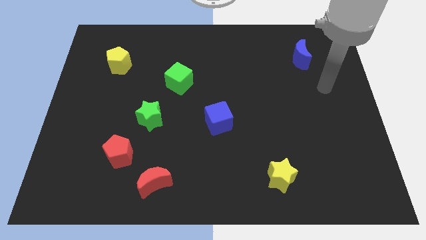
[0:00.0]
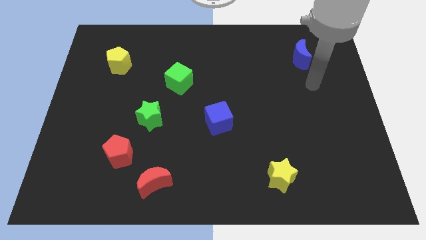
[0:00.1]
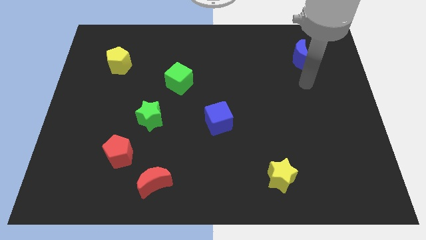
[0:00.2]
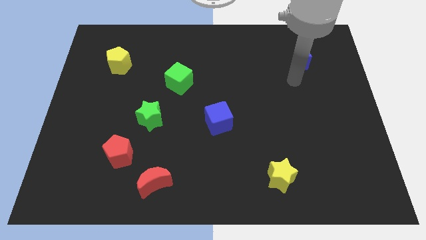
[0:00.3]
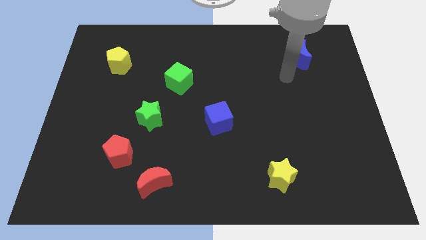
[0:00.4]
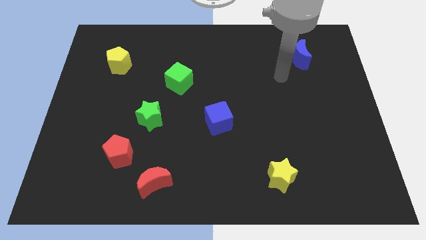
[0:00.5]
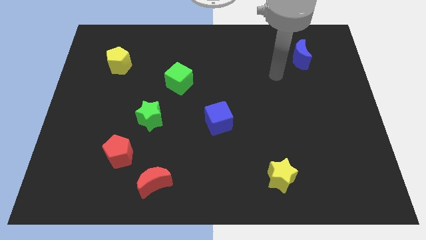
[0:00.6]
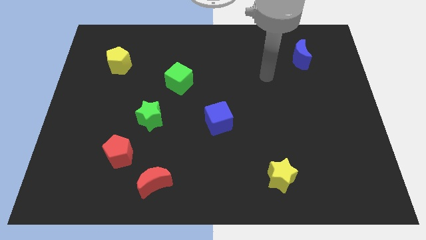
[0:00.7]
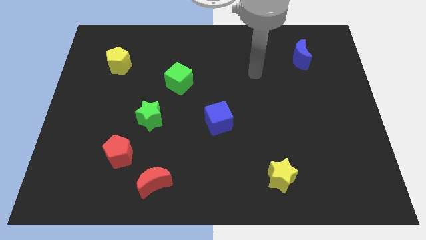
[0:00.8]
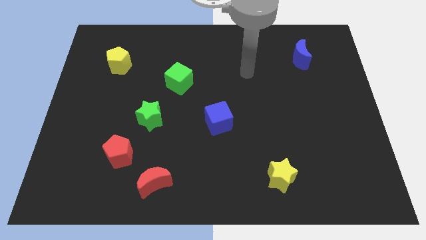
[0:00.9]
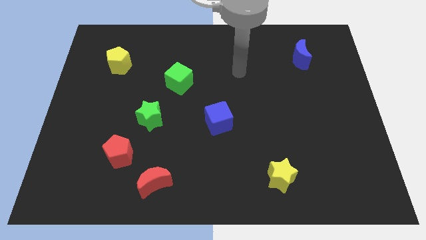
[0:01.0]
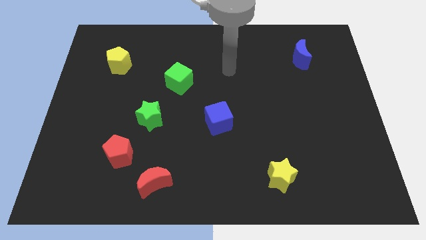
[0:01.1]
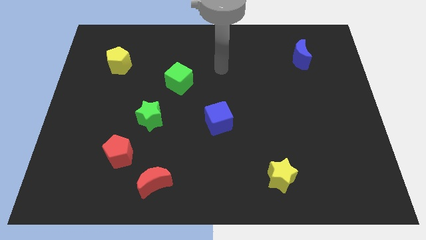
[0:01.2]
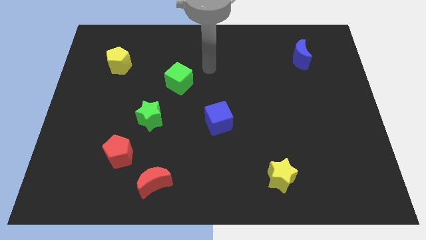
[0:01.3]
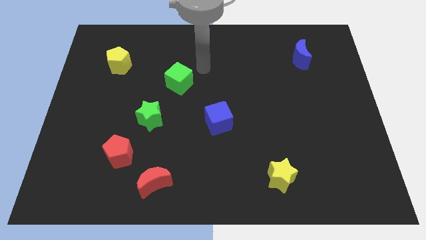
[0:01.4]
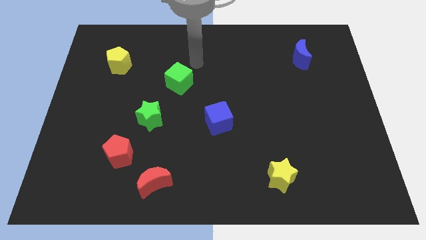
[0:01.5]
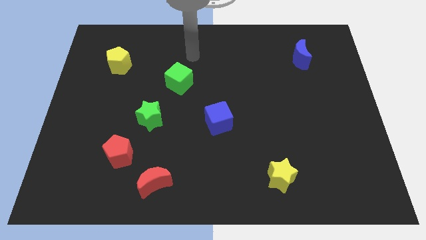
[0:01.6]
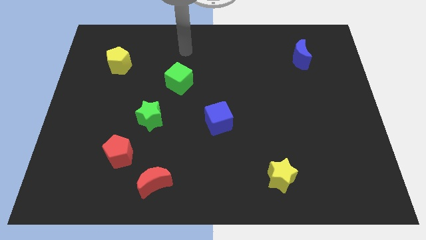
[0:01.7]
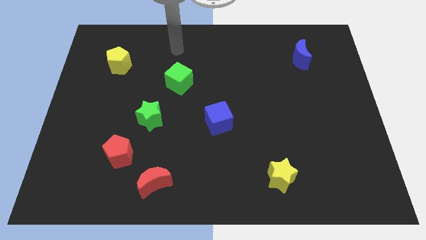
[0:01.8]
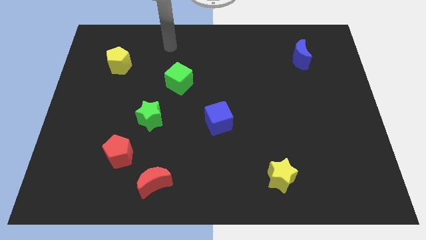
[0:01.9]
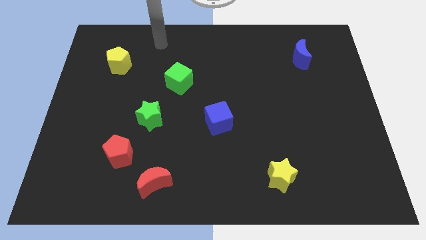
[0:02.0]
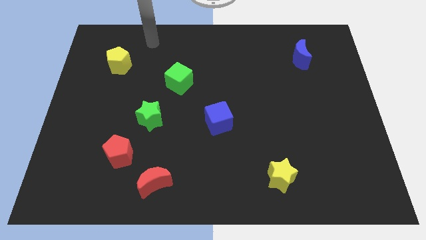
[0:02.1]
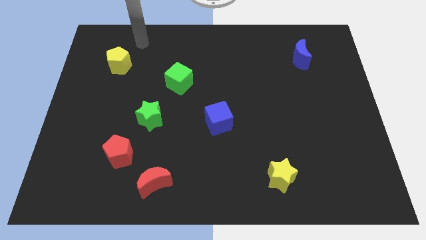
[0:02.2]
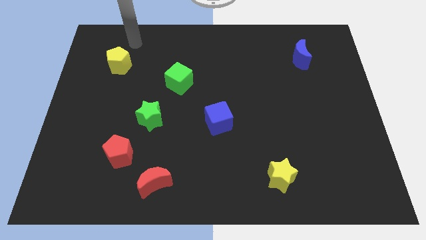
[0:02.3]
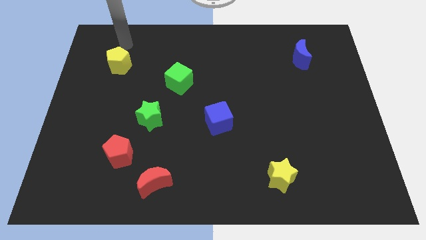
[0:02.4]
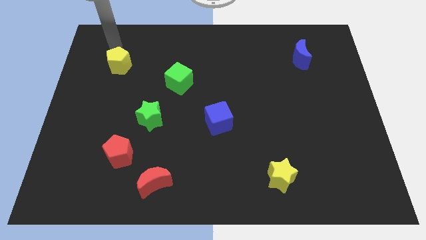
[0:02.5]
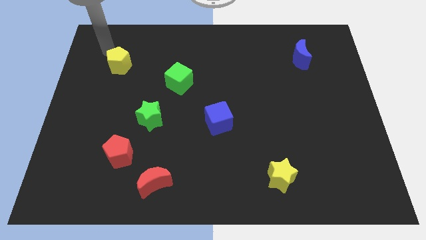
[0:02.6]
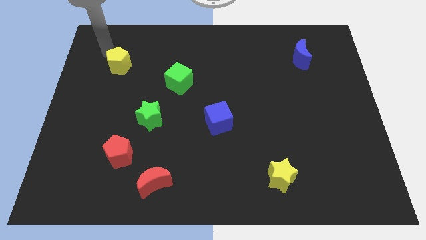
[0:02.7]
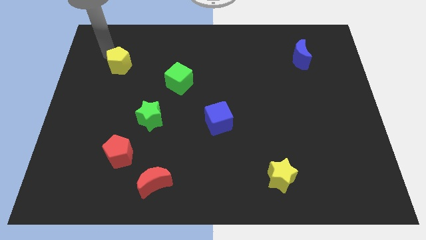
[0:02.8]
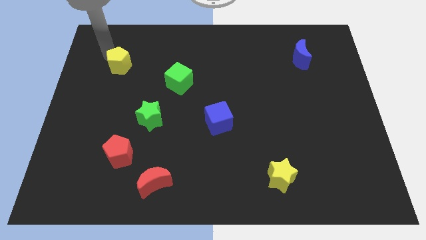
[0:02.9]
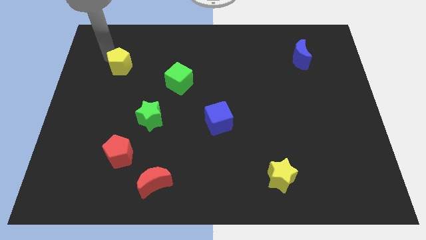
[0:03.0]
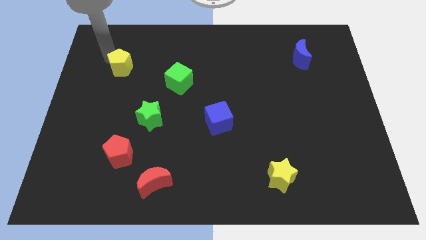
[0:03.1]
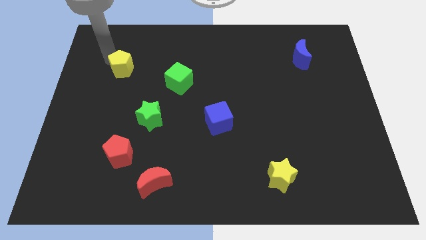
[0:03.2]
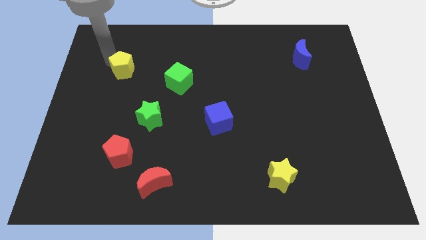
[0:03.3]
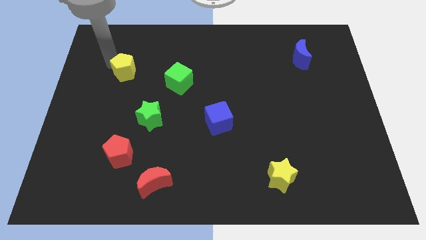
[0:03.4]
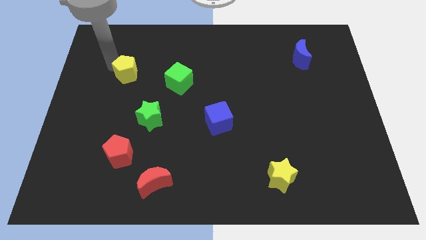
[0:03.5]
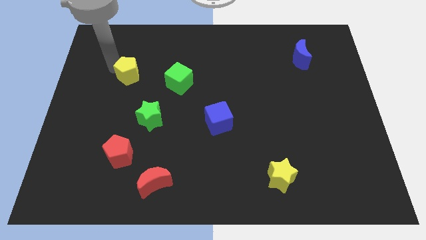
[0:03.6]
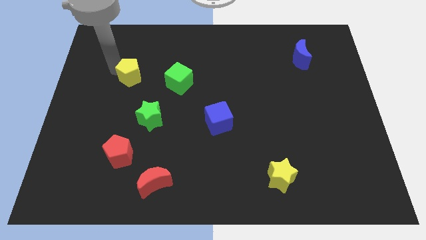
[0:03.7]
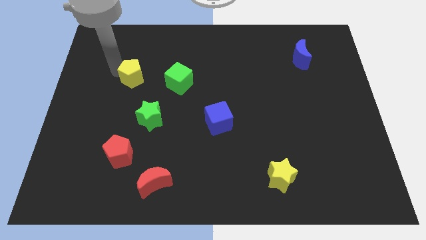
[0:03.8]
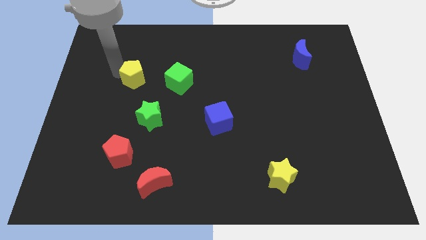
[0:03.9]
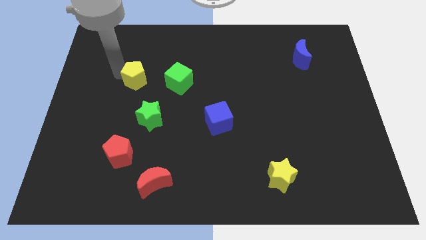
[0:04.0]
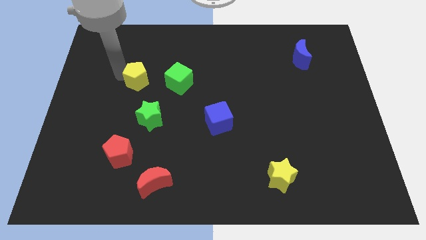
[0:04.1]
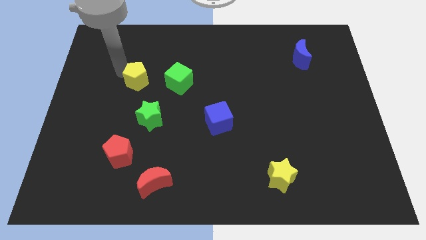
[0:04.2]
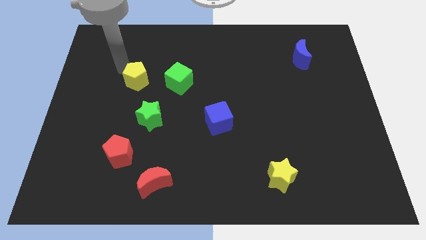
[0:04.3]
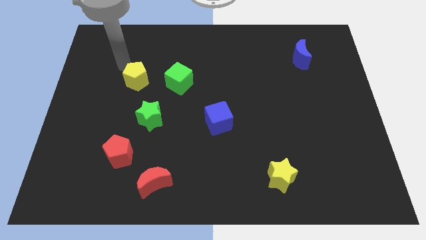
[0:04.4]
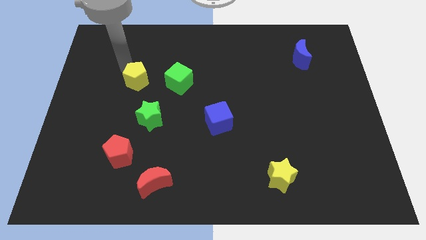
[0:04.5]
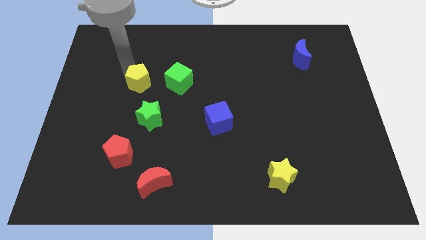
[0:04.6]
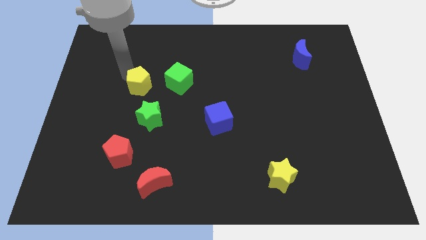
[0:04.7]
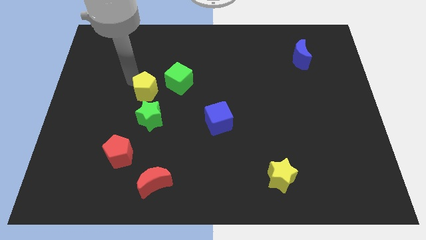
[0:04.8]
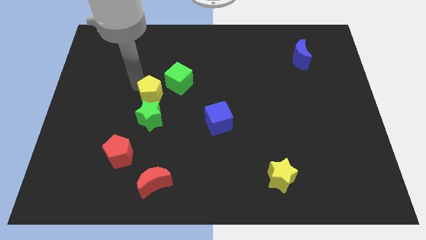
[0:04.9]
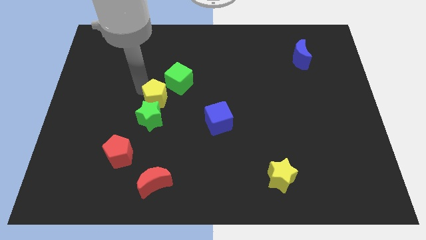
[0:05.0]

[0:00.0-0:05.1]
put the yellow pentagon to the top right side of the green star

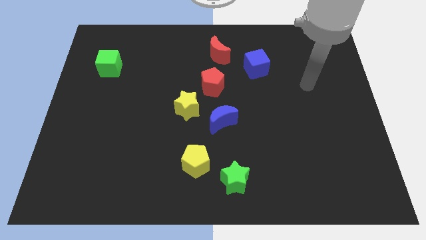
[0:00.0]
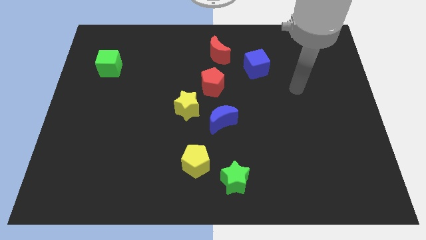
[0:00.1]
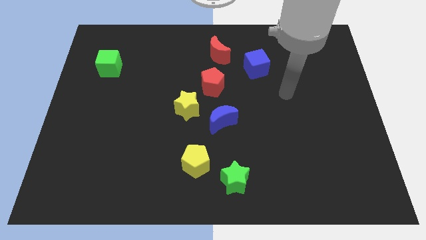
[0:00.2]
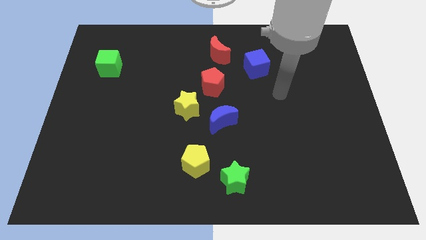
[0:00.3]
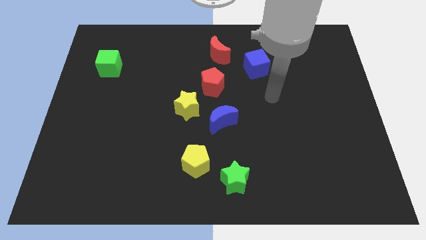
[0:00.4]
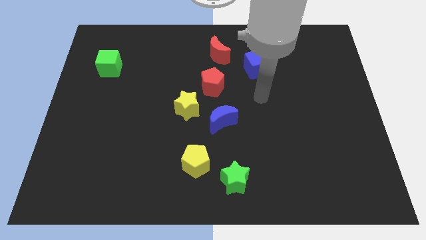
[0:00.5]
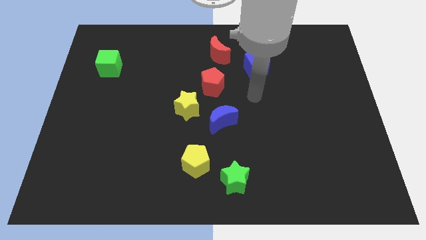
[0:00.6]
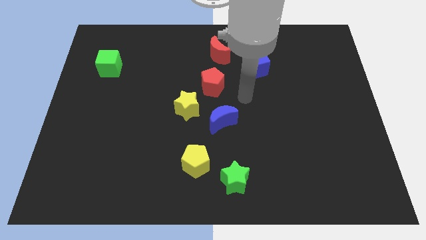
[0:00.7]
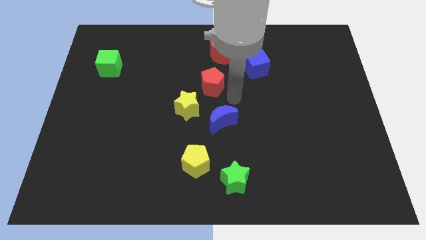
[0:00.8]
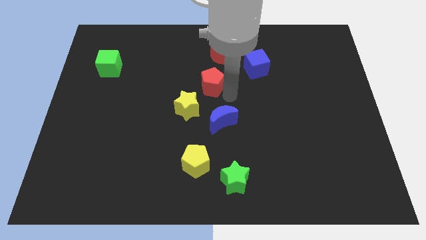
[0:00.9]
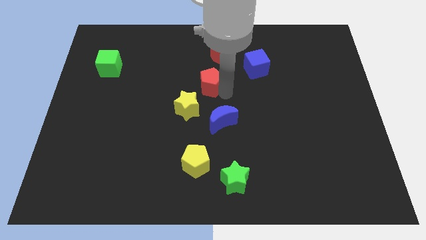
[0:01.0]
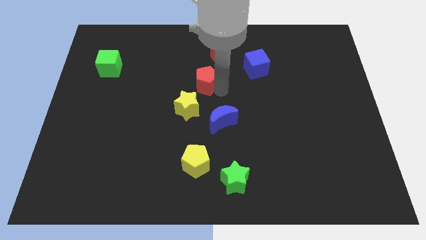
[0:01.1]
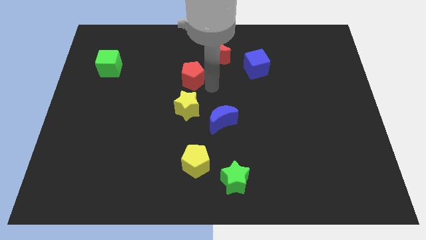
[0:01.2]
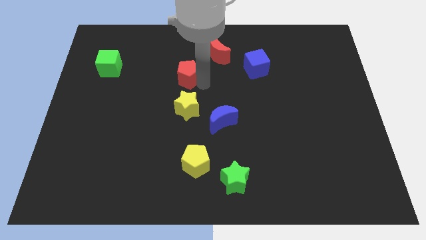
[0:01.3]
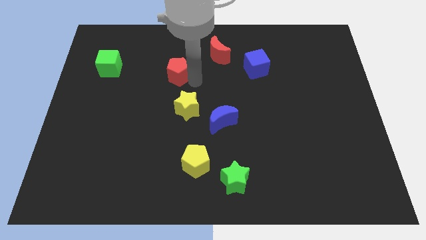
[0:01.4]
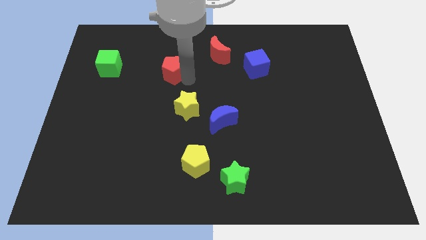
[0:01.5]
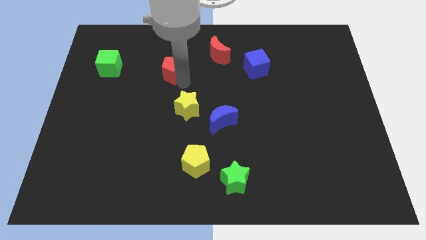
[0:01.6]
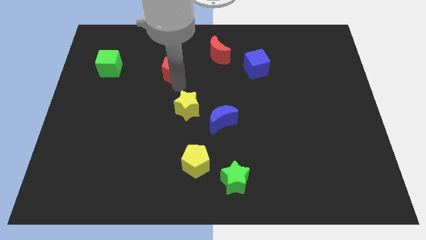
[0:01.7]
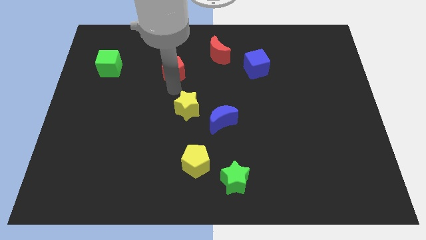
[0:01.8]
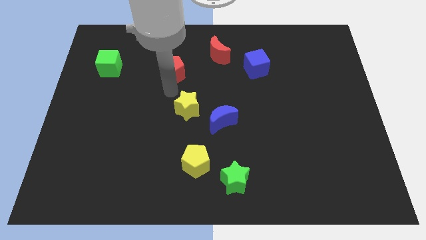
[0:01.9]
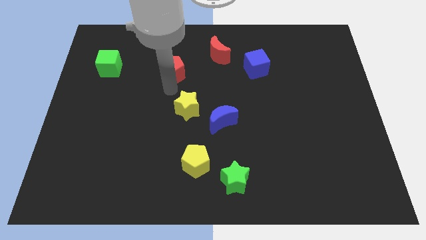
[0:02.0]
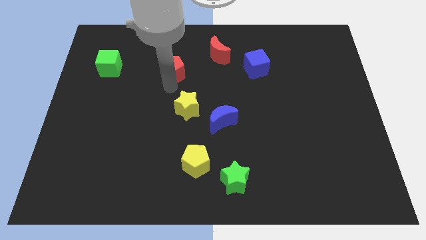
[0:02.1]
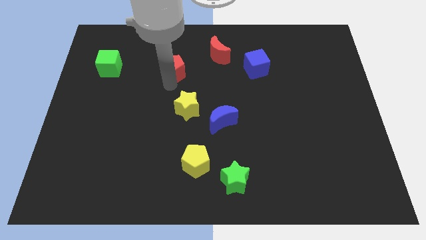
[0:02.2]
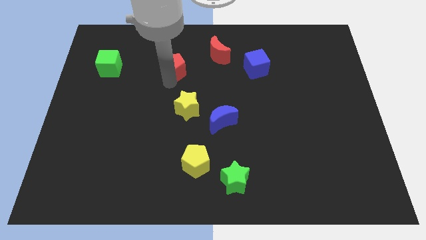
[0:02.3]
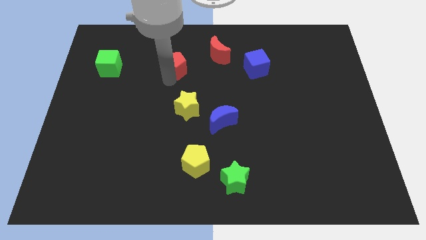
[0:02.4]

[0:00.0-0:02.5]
put the red pentagon to the left side of the red moon
